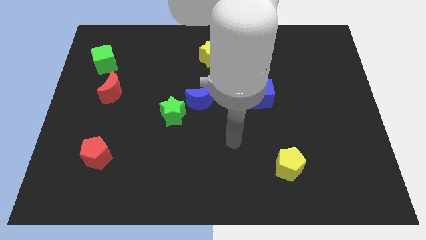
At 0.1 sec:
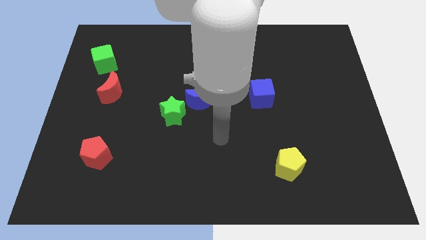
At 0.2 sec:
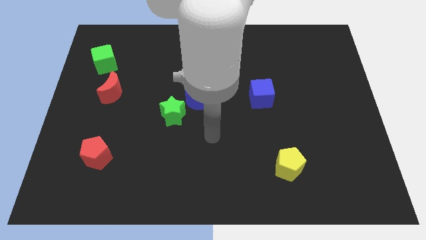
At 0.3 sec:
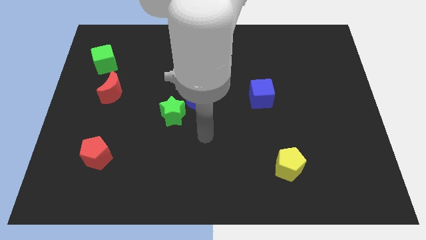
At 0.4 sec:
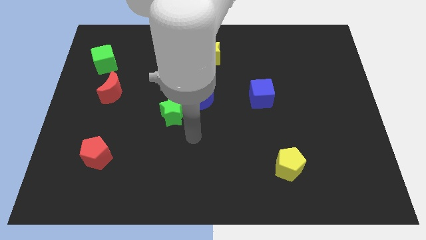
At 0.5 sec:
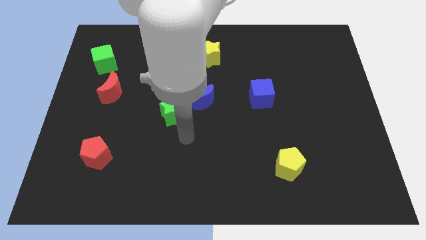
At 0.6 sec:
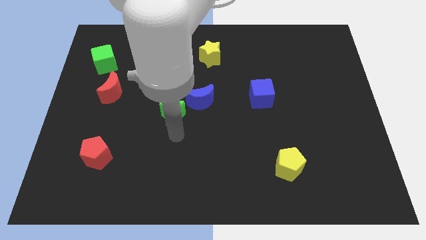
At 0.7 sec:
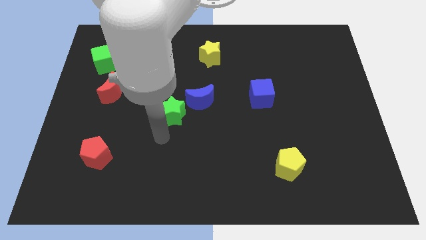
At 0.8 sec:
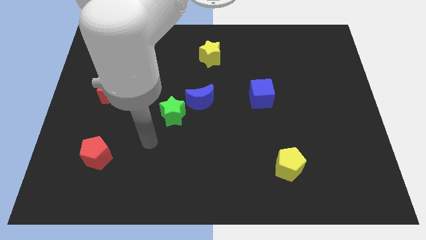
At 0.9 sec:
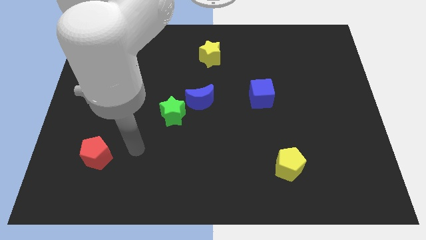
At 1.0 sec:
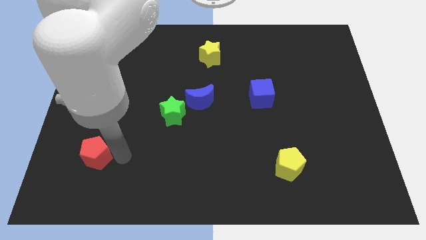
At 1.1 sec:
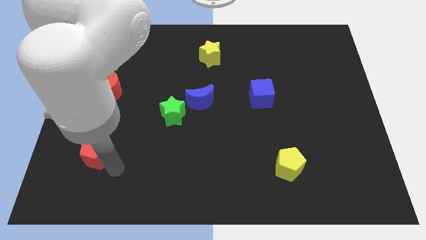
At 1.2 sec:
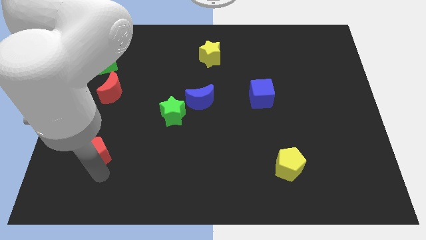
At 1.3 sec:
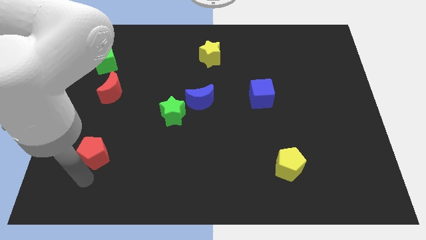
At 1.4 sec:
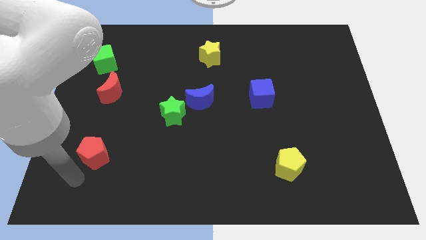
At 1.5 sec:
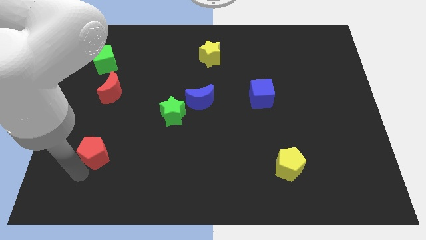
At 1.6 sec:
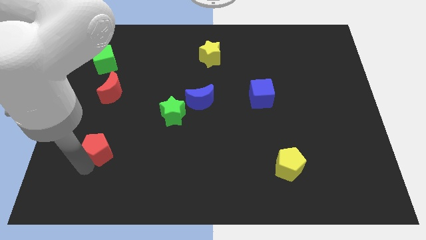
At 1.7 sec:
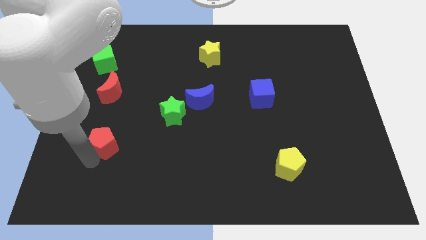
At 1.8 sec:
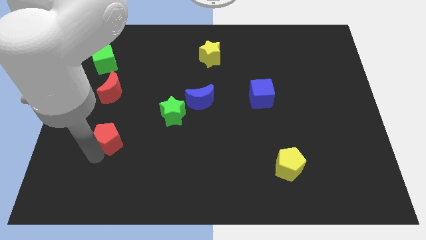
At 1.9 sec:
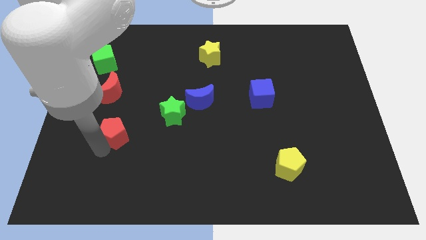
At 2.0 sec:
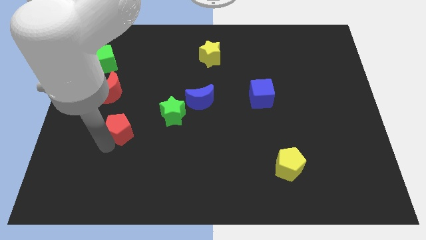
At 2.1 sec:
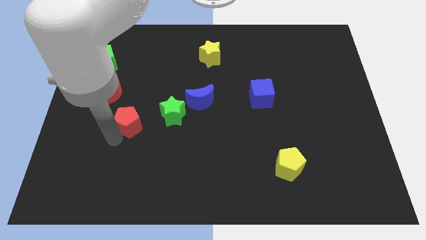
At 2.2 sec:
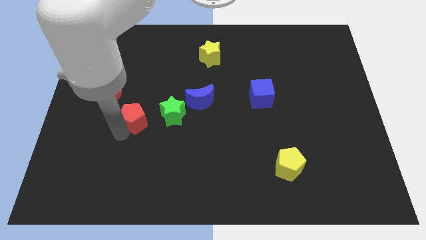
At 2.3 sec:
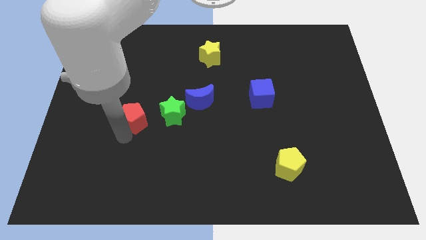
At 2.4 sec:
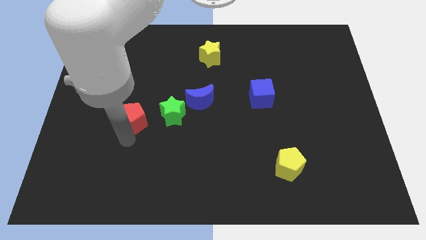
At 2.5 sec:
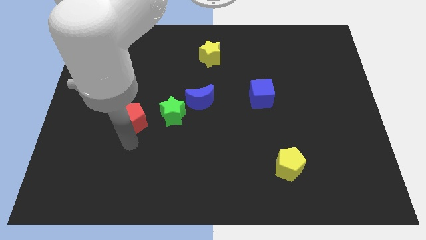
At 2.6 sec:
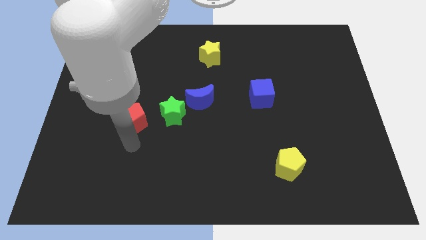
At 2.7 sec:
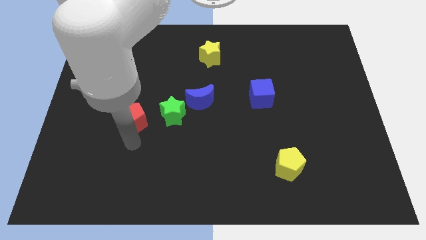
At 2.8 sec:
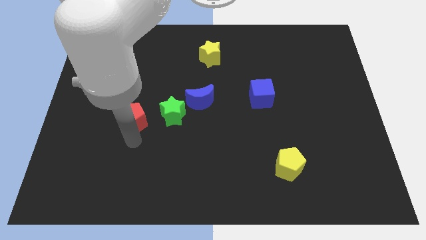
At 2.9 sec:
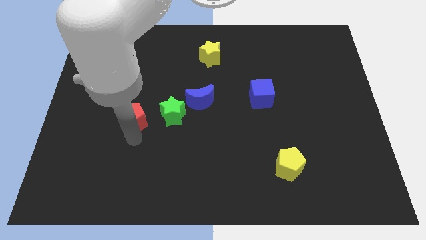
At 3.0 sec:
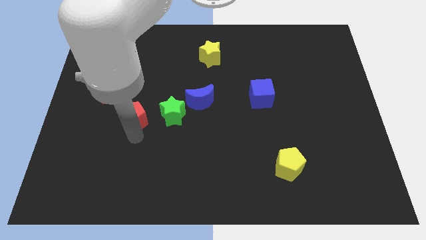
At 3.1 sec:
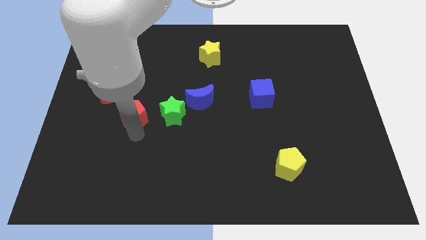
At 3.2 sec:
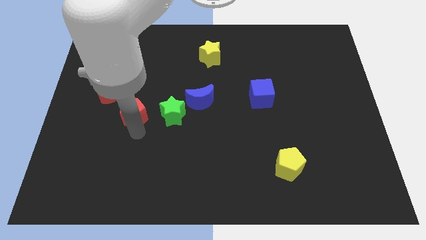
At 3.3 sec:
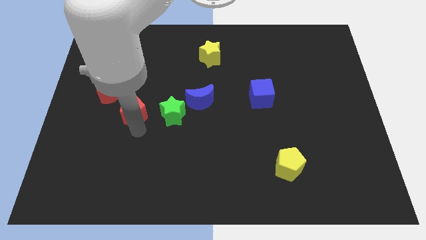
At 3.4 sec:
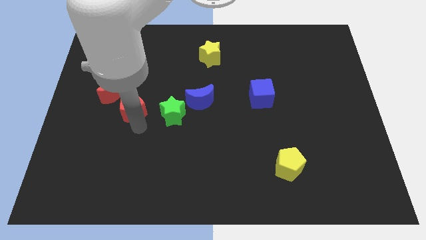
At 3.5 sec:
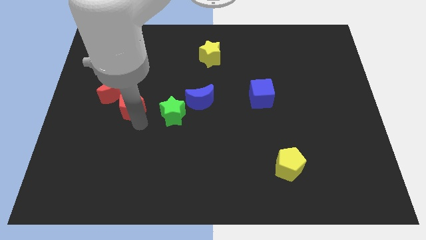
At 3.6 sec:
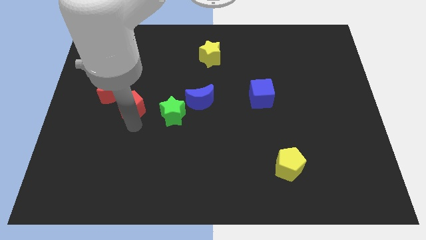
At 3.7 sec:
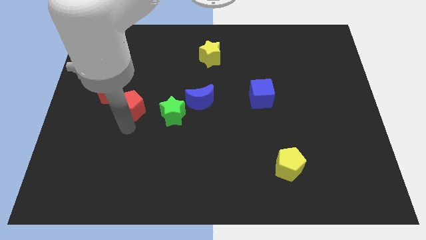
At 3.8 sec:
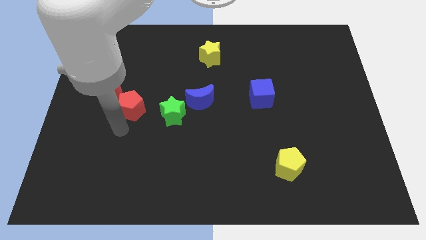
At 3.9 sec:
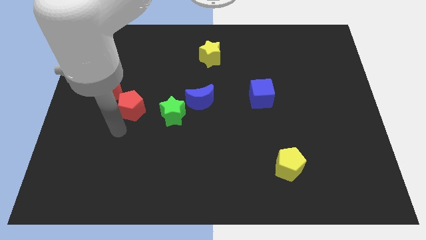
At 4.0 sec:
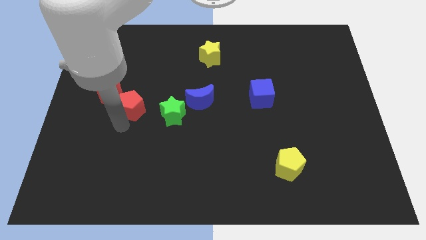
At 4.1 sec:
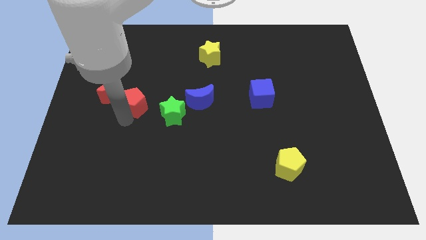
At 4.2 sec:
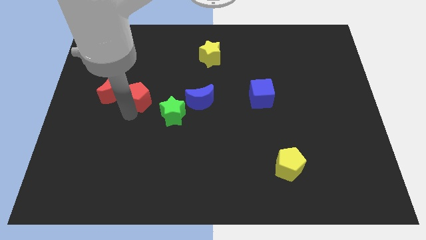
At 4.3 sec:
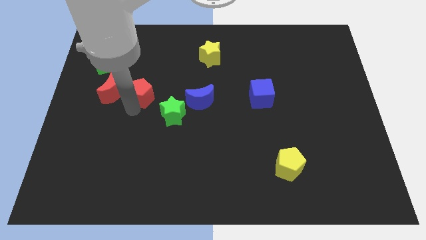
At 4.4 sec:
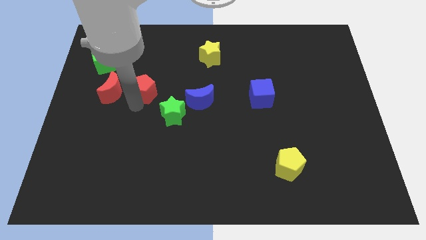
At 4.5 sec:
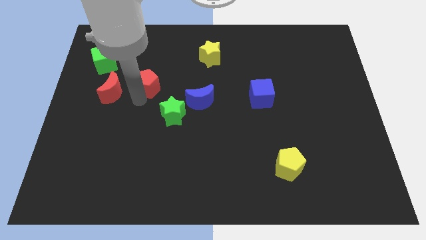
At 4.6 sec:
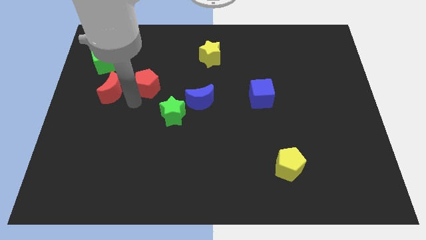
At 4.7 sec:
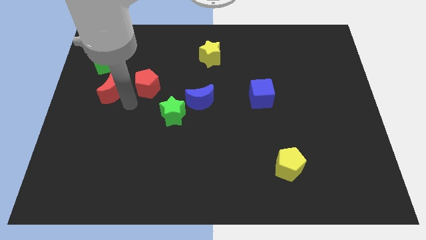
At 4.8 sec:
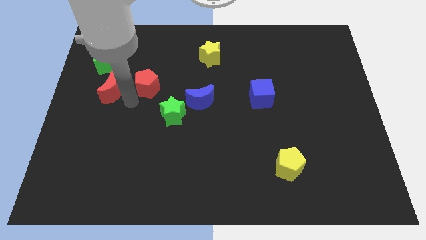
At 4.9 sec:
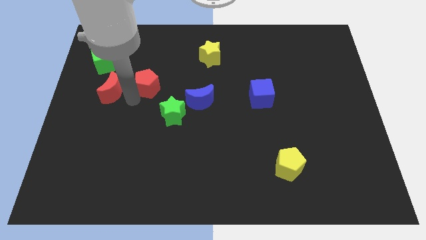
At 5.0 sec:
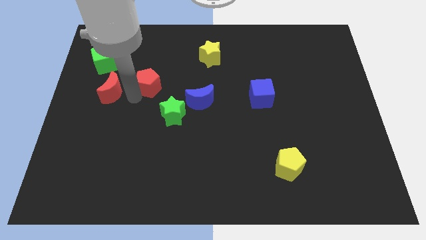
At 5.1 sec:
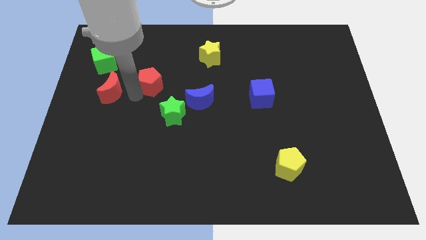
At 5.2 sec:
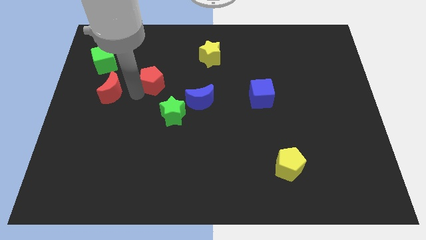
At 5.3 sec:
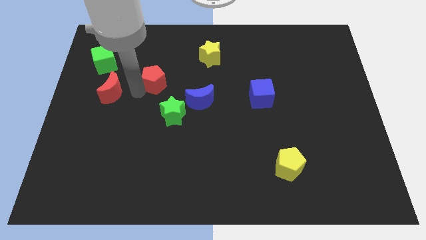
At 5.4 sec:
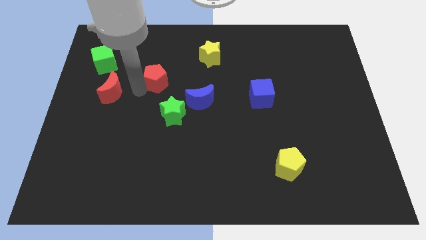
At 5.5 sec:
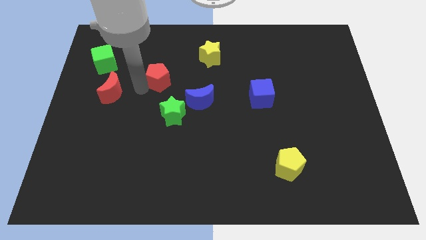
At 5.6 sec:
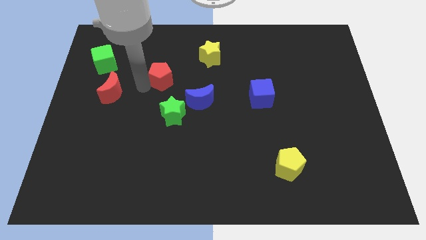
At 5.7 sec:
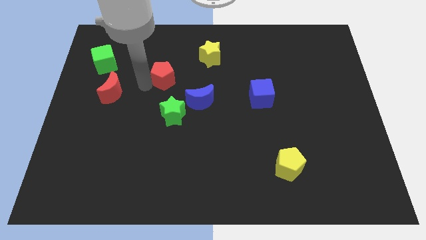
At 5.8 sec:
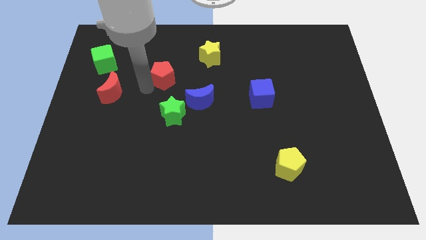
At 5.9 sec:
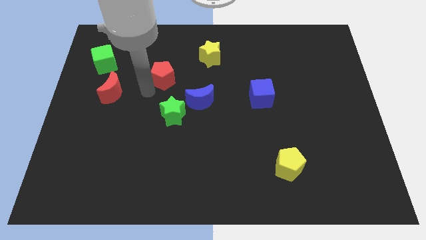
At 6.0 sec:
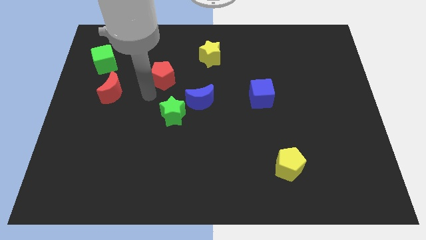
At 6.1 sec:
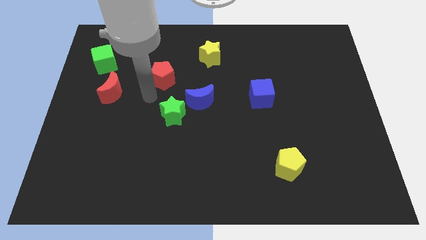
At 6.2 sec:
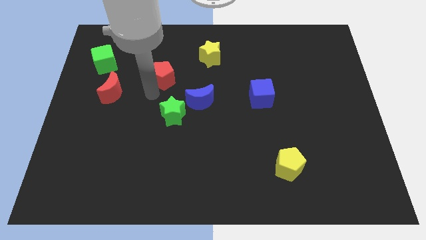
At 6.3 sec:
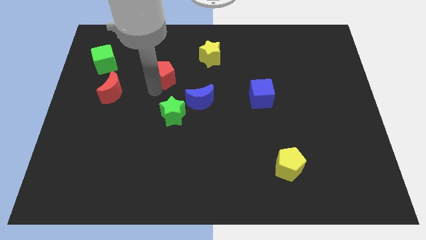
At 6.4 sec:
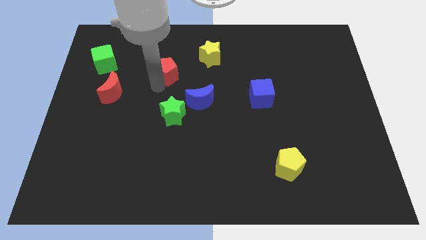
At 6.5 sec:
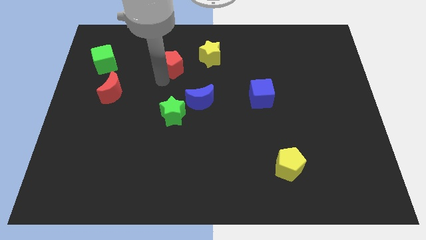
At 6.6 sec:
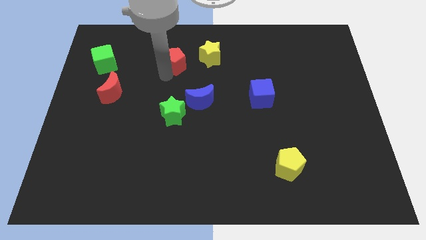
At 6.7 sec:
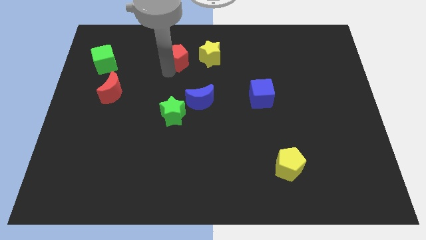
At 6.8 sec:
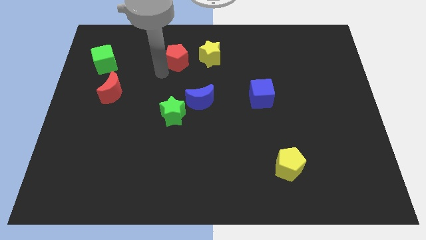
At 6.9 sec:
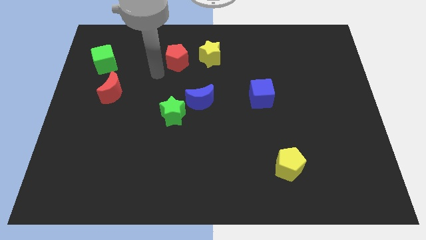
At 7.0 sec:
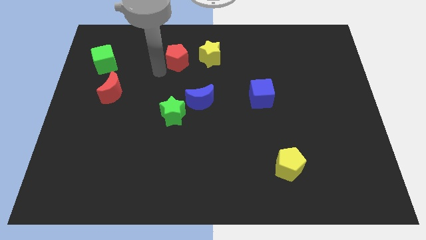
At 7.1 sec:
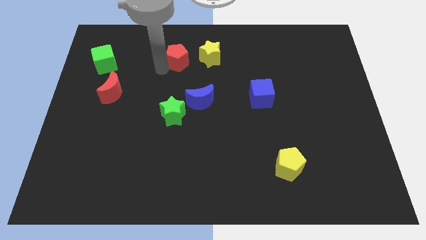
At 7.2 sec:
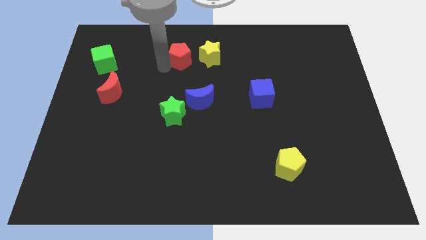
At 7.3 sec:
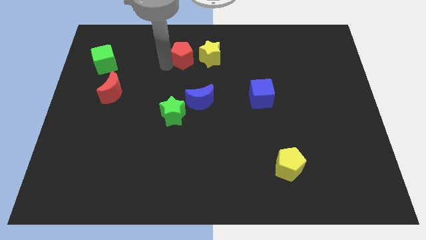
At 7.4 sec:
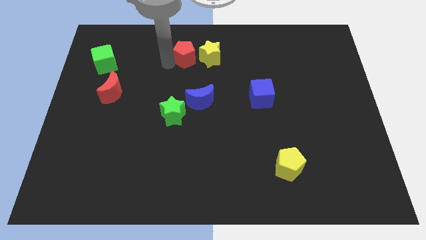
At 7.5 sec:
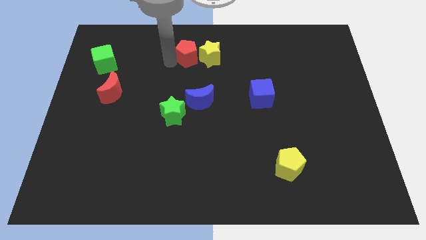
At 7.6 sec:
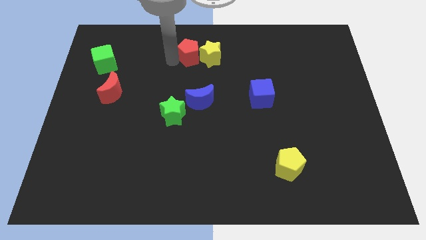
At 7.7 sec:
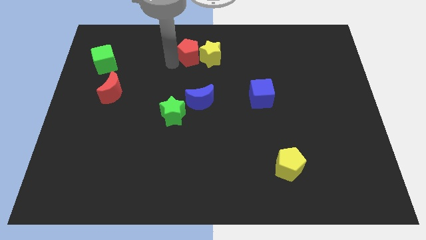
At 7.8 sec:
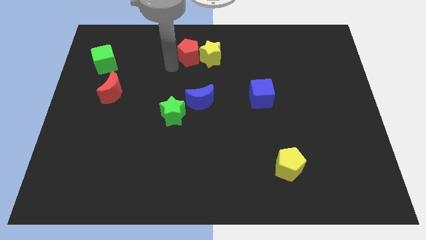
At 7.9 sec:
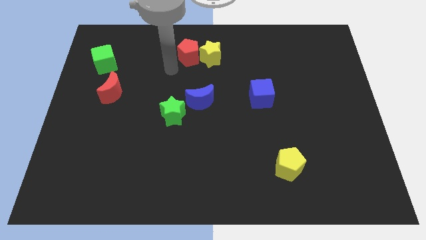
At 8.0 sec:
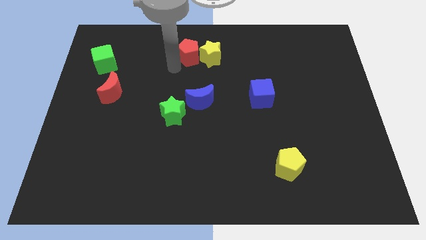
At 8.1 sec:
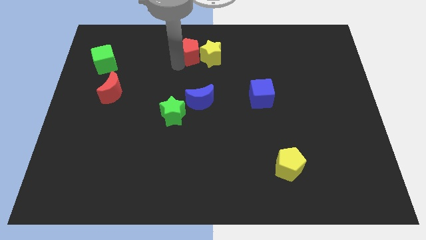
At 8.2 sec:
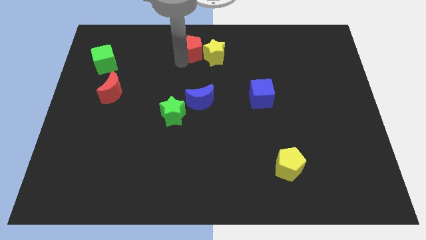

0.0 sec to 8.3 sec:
put the red pentagon to the top side
